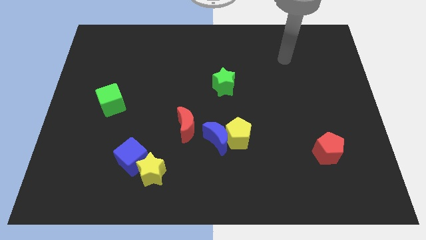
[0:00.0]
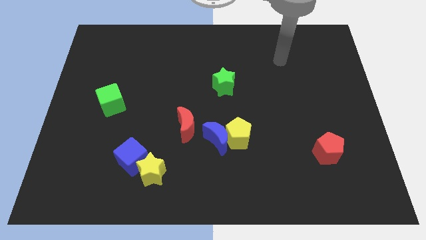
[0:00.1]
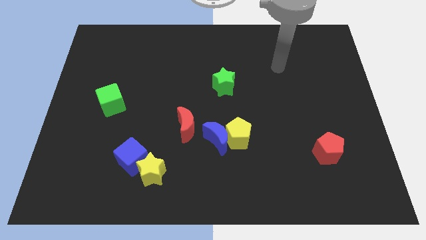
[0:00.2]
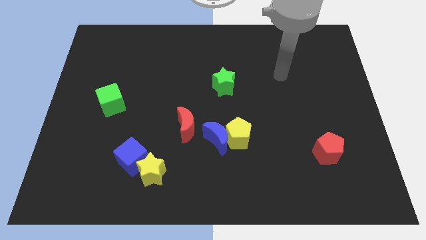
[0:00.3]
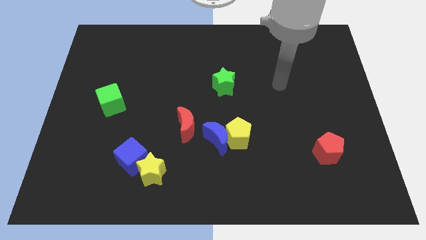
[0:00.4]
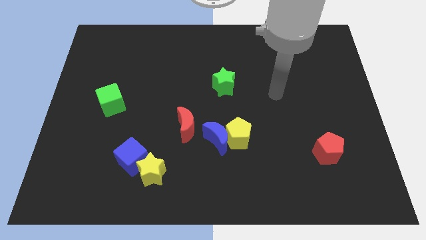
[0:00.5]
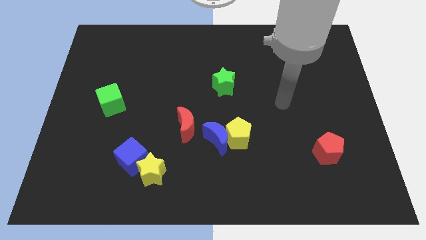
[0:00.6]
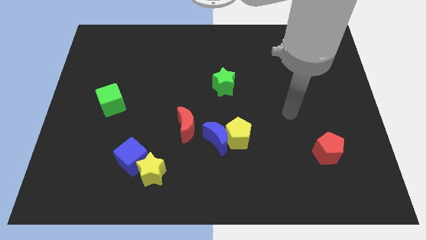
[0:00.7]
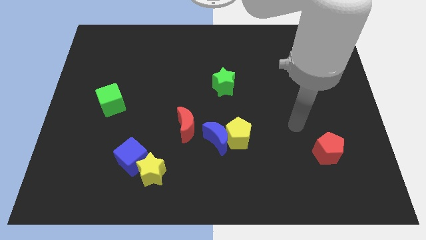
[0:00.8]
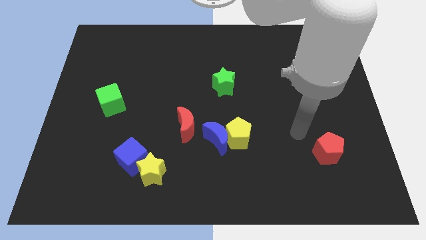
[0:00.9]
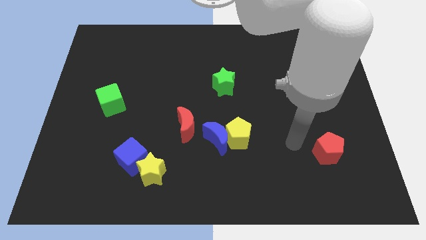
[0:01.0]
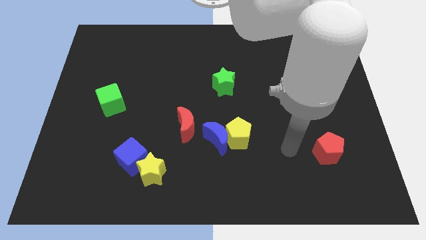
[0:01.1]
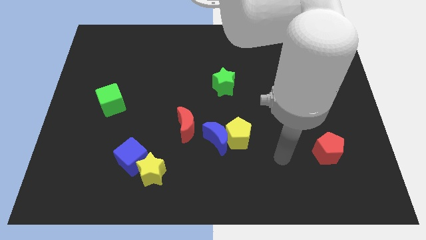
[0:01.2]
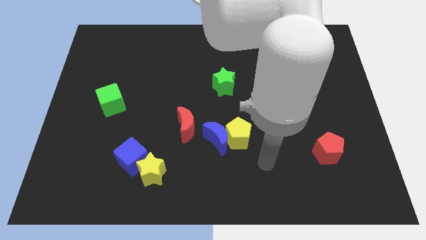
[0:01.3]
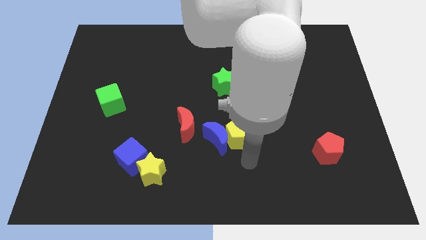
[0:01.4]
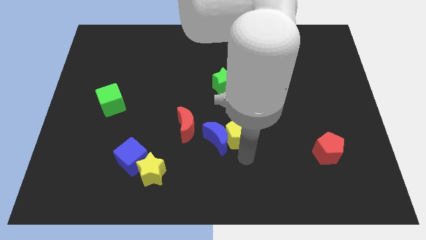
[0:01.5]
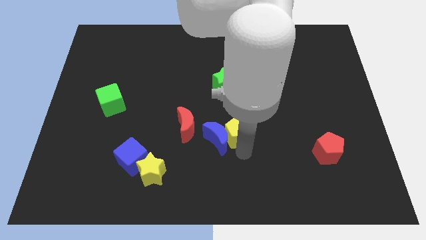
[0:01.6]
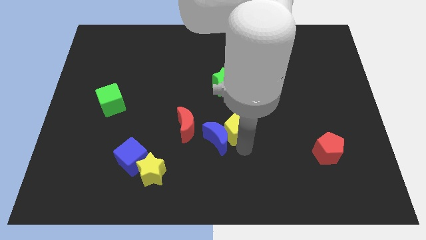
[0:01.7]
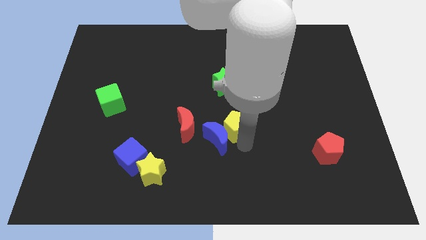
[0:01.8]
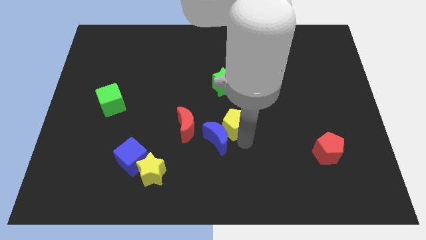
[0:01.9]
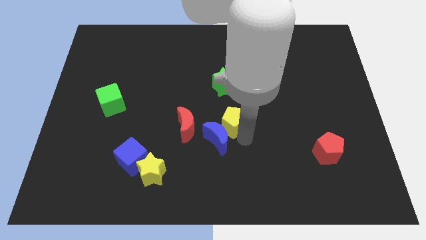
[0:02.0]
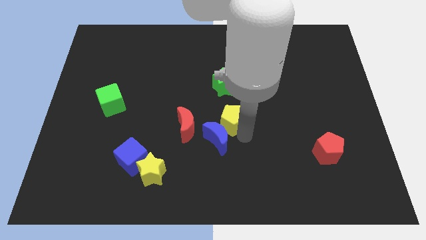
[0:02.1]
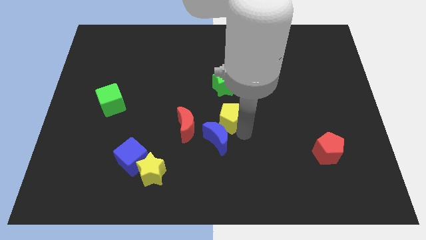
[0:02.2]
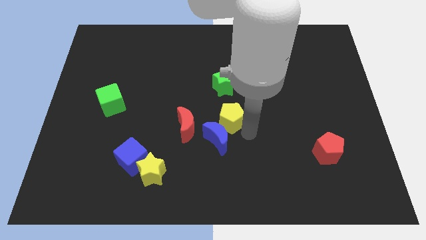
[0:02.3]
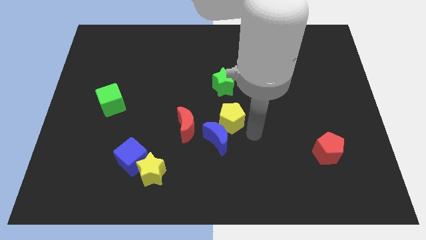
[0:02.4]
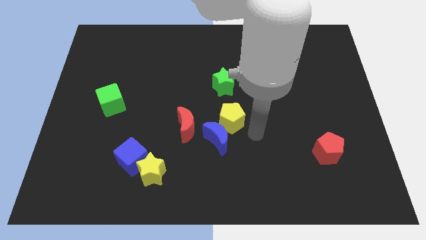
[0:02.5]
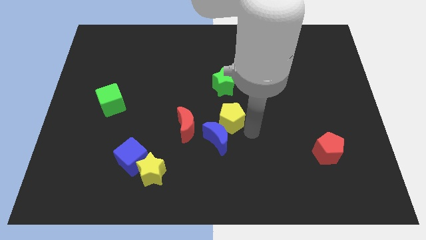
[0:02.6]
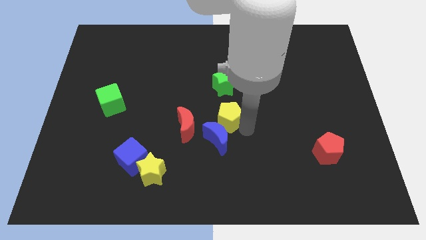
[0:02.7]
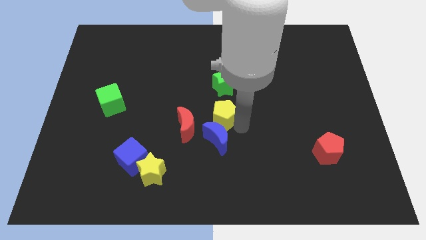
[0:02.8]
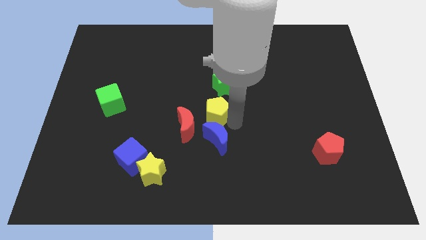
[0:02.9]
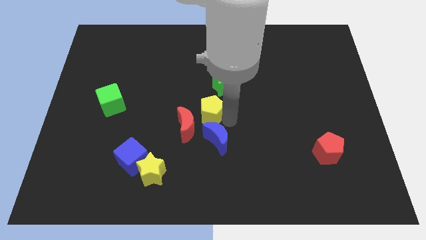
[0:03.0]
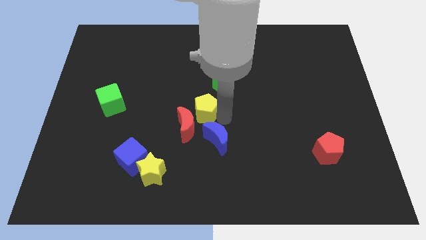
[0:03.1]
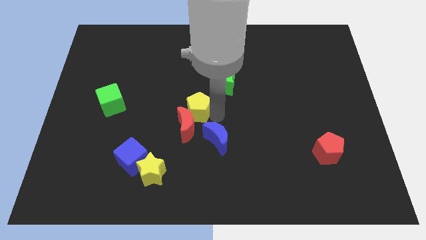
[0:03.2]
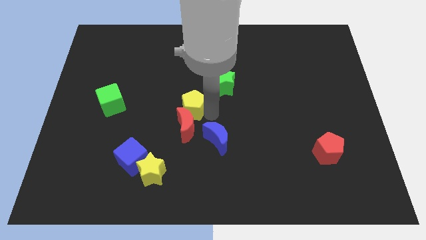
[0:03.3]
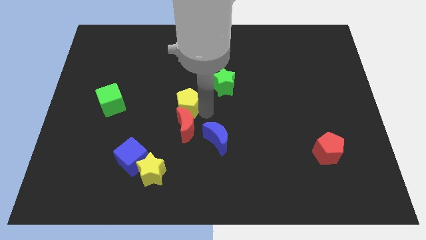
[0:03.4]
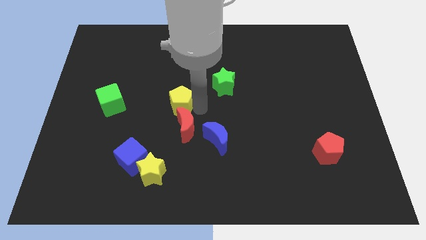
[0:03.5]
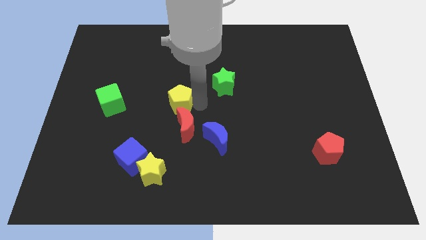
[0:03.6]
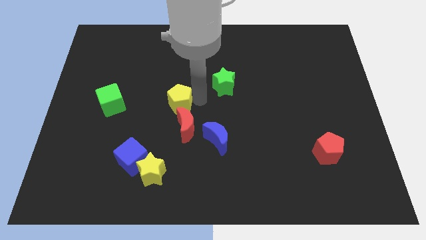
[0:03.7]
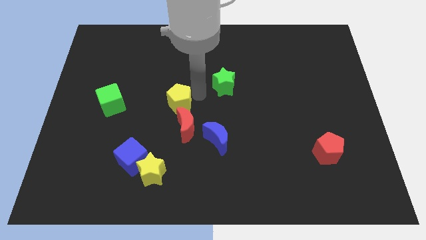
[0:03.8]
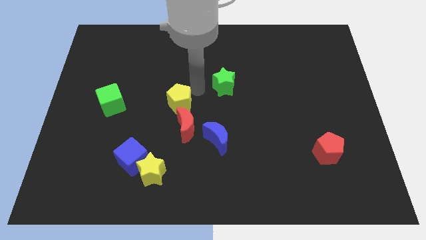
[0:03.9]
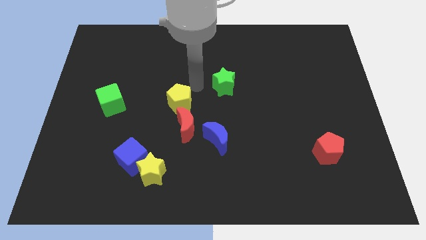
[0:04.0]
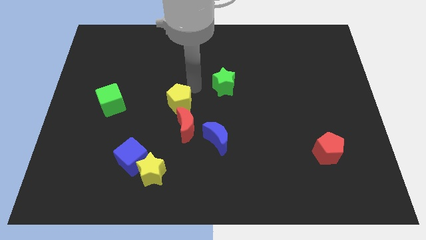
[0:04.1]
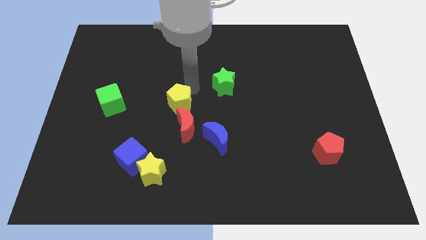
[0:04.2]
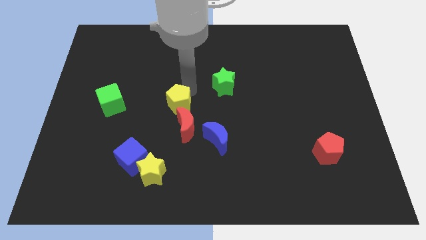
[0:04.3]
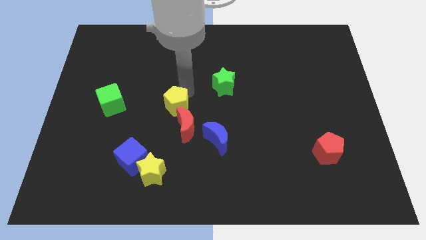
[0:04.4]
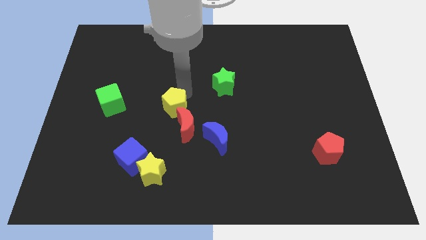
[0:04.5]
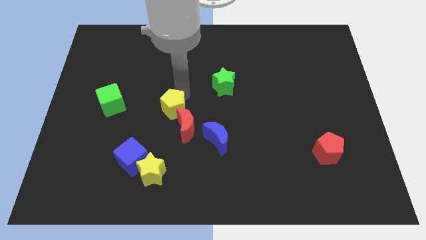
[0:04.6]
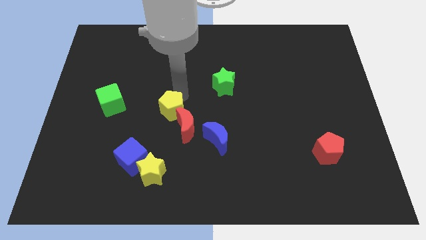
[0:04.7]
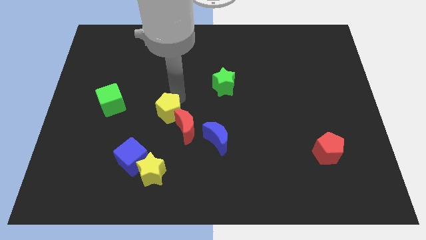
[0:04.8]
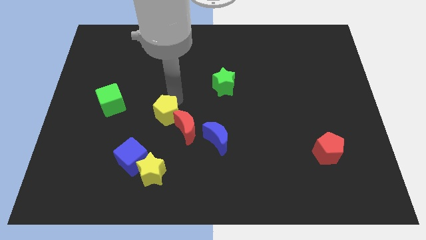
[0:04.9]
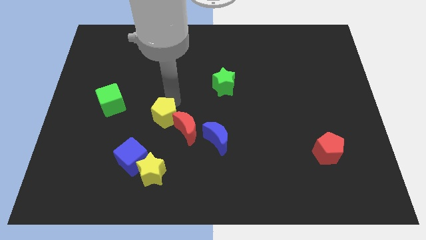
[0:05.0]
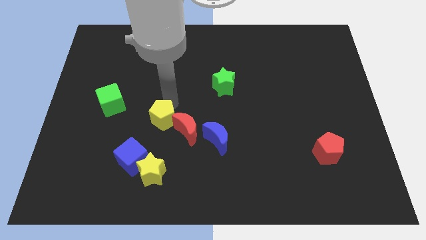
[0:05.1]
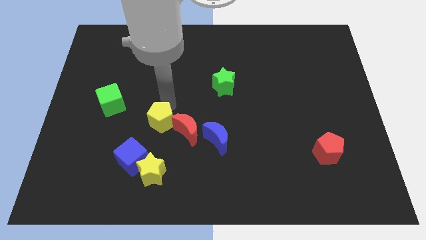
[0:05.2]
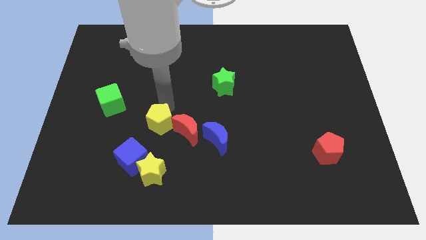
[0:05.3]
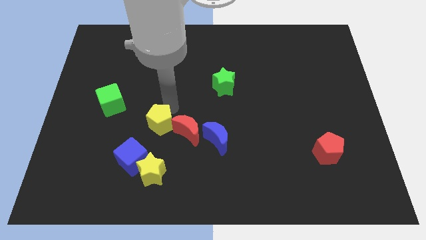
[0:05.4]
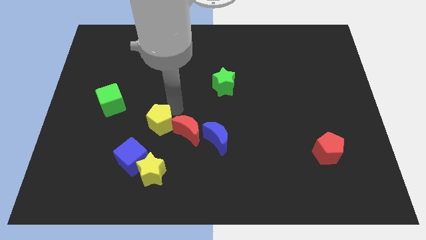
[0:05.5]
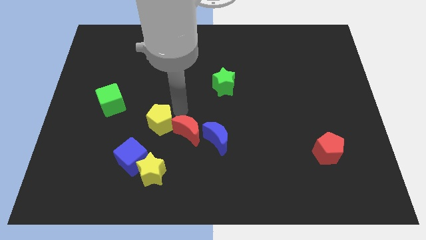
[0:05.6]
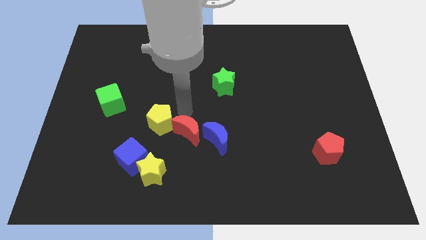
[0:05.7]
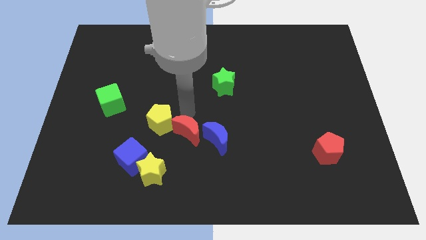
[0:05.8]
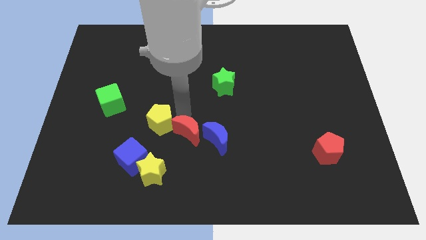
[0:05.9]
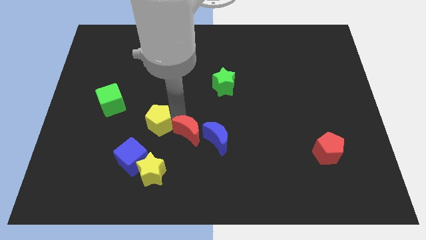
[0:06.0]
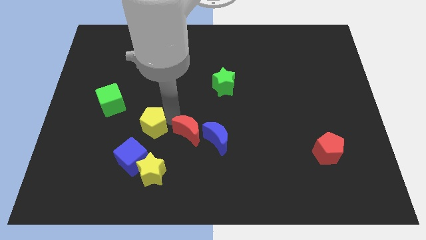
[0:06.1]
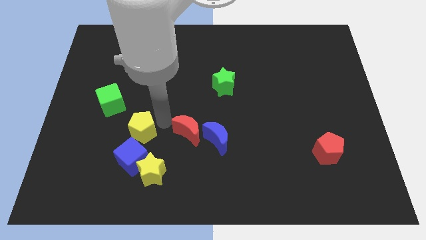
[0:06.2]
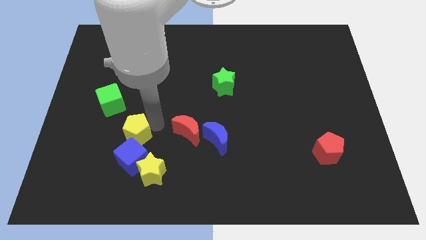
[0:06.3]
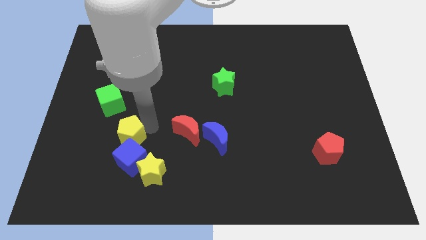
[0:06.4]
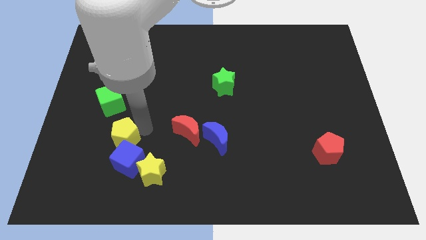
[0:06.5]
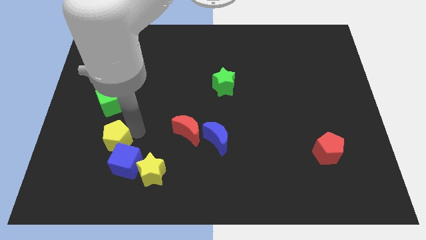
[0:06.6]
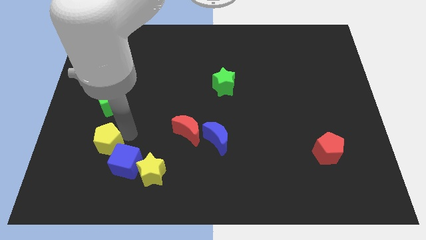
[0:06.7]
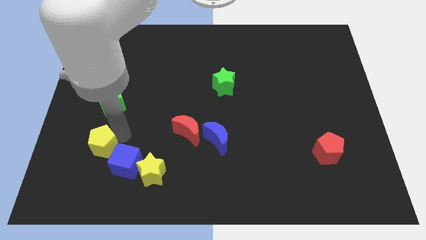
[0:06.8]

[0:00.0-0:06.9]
slide the yellow pentagon just left of the blue cube
